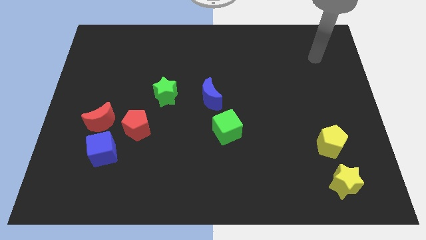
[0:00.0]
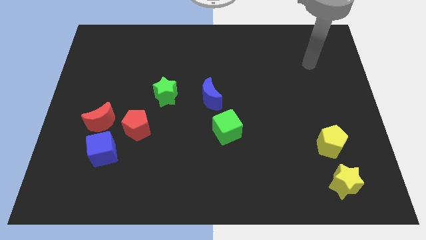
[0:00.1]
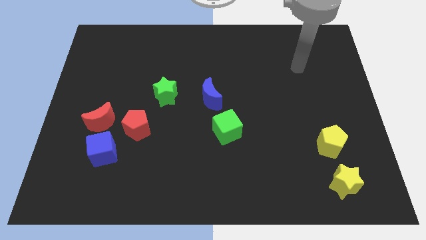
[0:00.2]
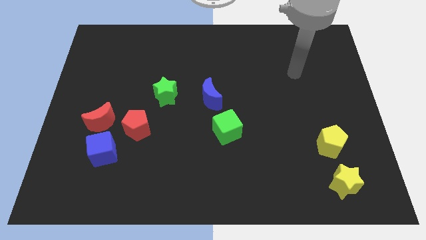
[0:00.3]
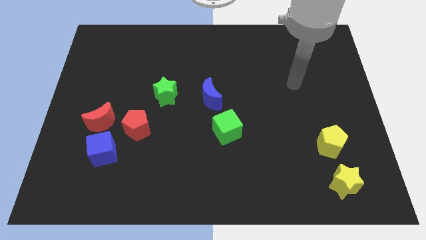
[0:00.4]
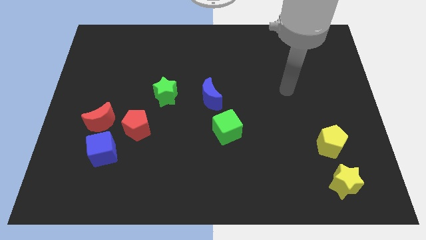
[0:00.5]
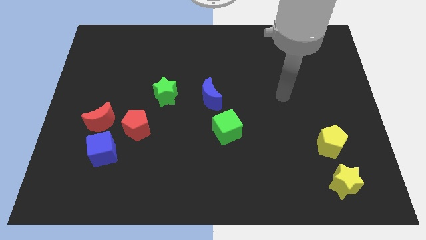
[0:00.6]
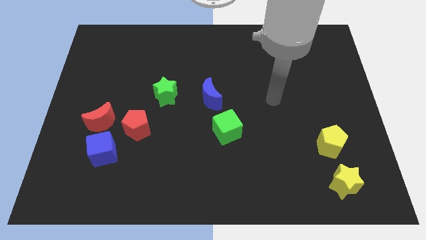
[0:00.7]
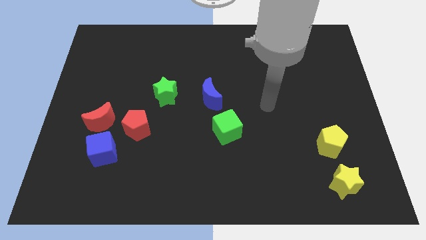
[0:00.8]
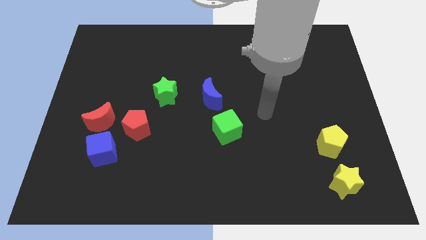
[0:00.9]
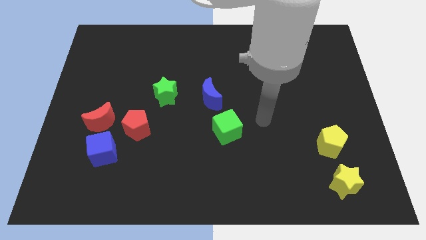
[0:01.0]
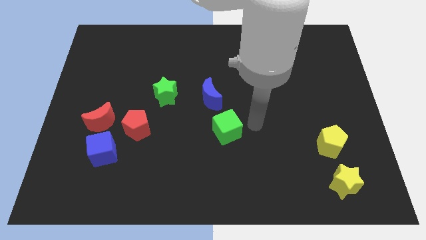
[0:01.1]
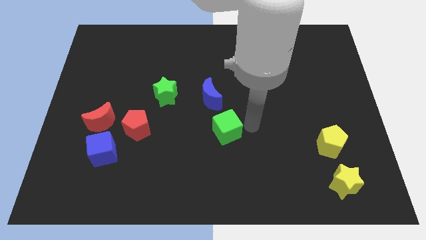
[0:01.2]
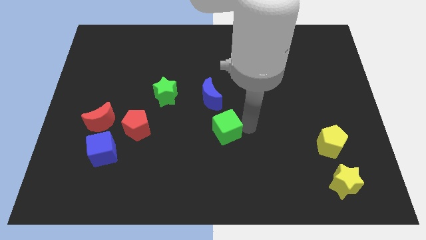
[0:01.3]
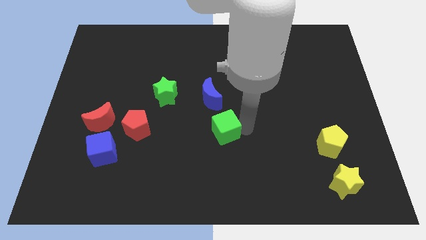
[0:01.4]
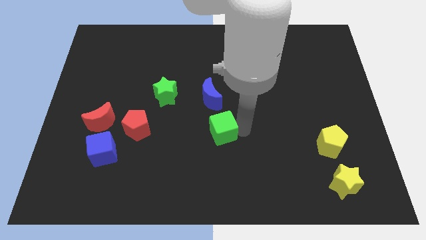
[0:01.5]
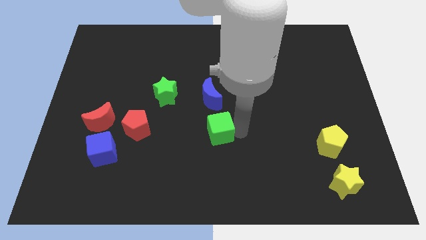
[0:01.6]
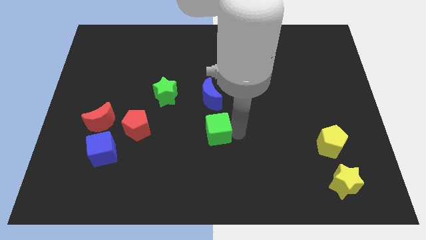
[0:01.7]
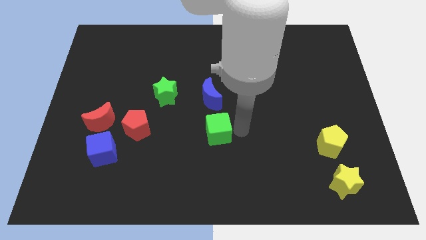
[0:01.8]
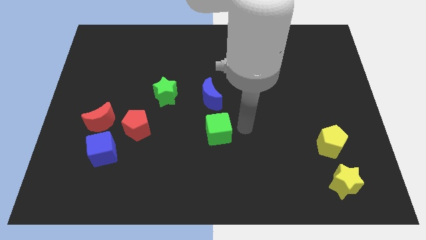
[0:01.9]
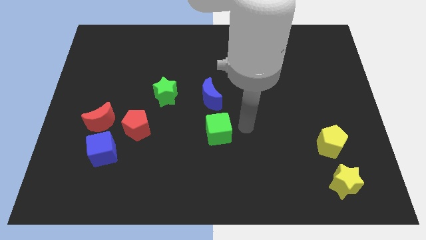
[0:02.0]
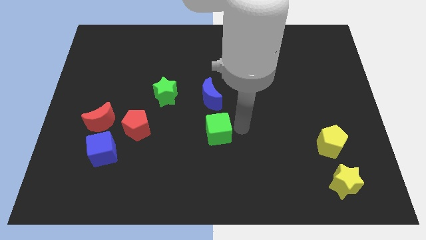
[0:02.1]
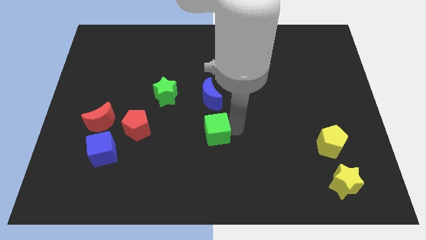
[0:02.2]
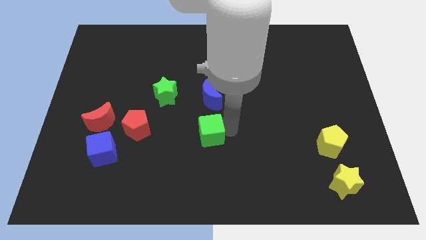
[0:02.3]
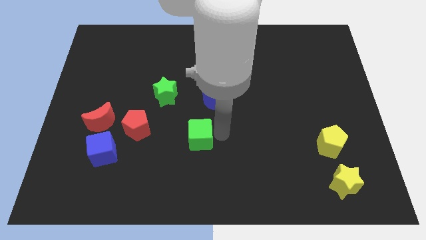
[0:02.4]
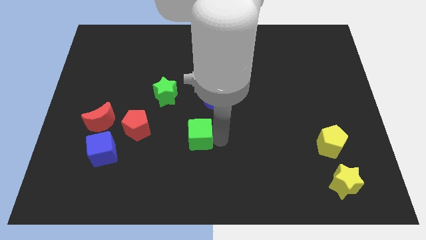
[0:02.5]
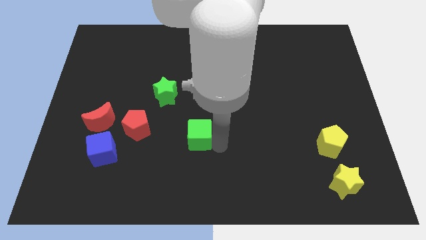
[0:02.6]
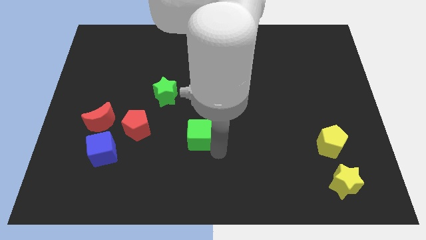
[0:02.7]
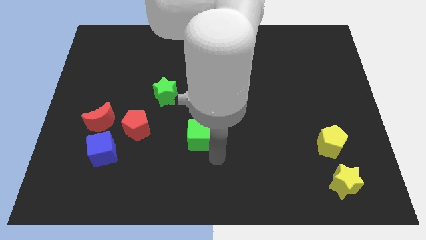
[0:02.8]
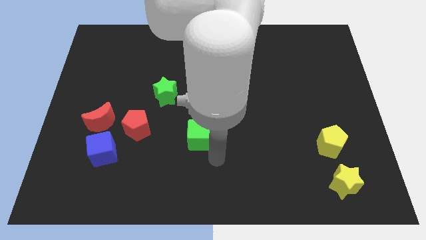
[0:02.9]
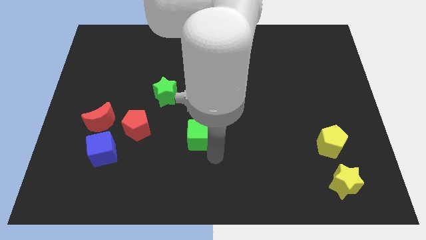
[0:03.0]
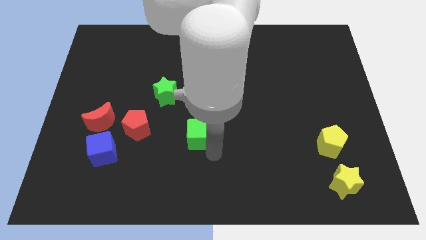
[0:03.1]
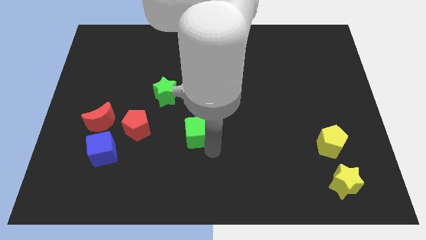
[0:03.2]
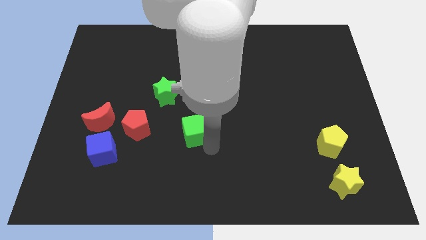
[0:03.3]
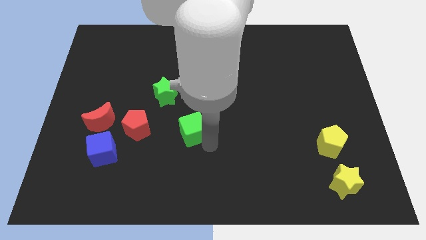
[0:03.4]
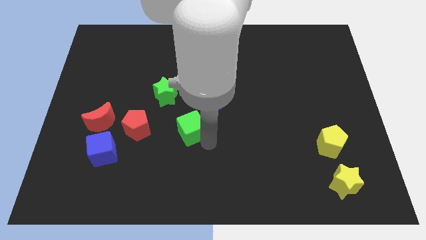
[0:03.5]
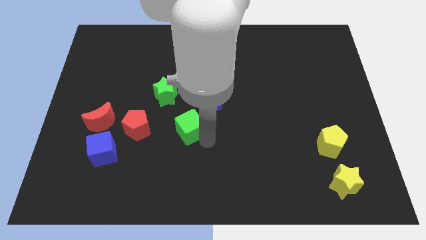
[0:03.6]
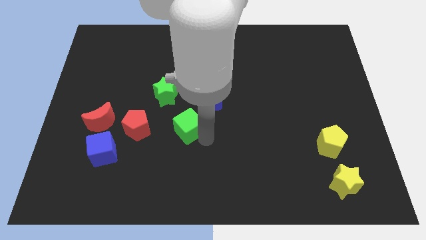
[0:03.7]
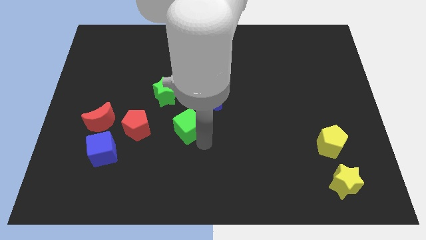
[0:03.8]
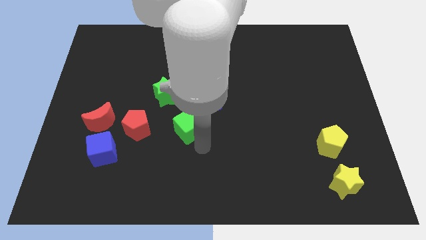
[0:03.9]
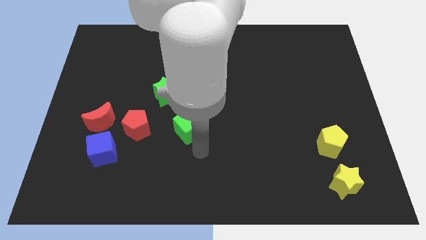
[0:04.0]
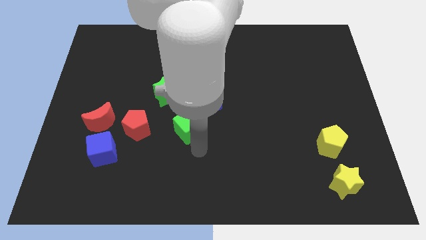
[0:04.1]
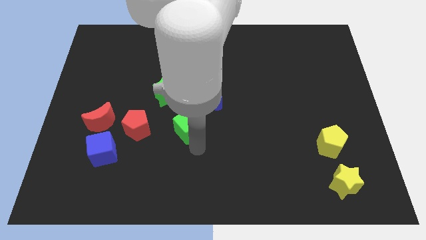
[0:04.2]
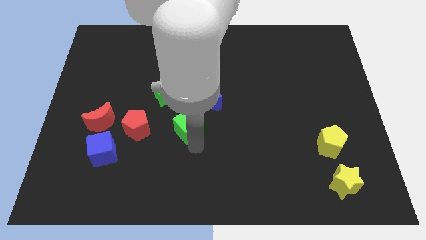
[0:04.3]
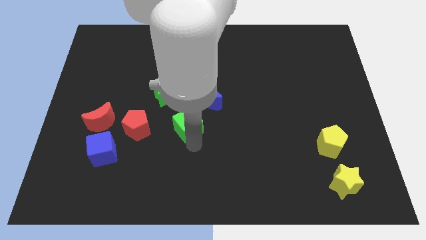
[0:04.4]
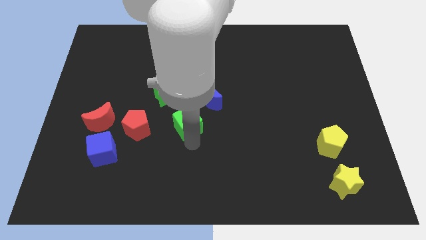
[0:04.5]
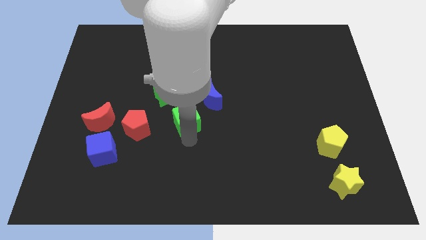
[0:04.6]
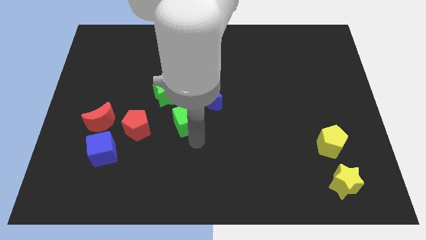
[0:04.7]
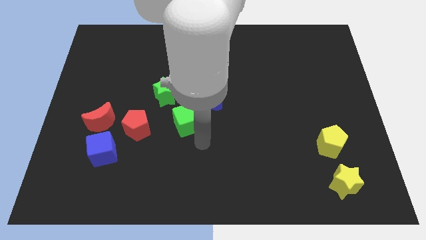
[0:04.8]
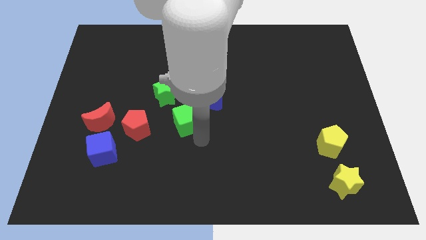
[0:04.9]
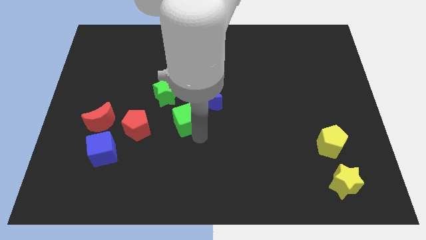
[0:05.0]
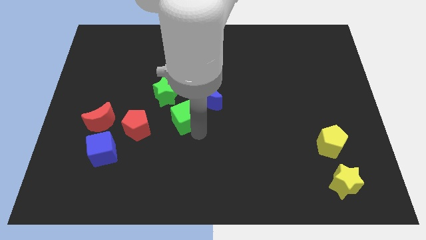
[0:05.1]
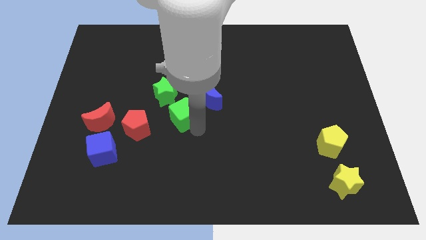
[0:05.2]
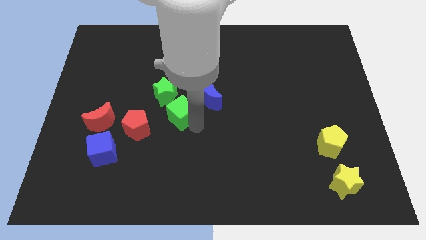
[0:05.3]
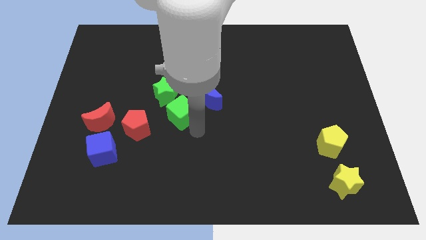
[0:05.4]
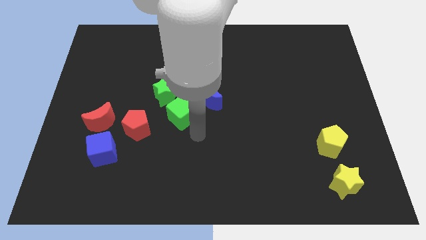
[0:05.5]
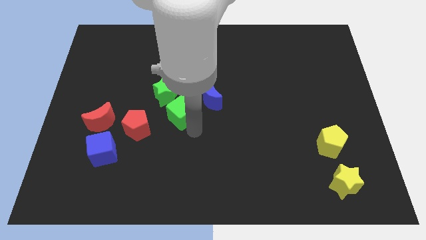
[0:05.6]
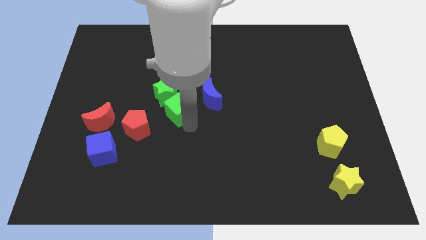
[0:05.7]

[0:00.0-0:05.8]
put the green cube close to the green star

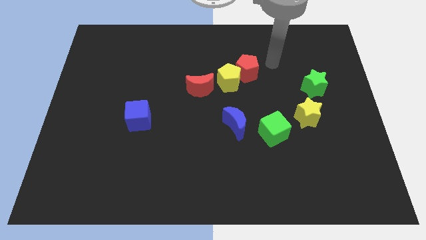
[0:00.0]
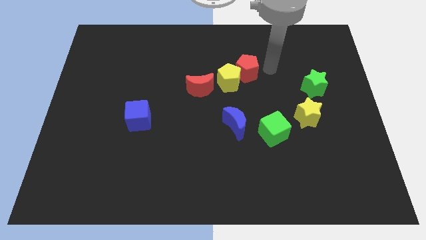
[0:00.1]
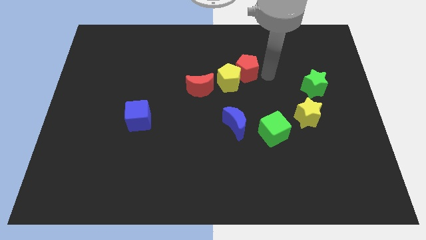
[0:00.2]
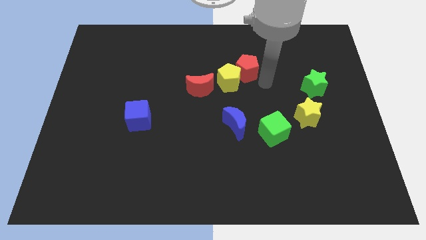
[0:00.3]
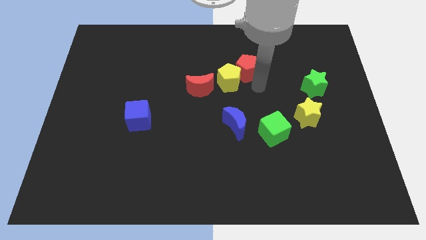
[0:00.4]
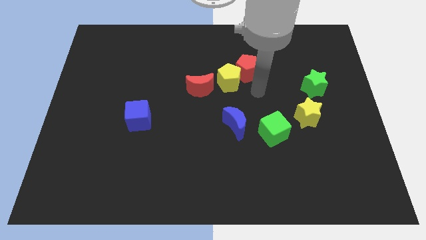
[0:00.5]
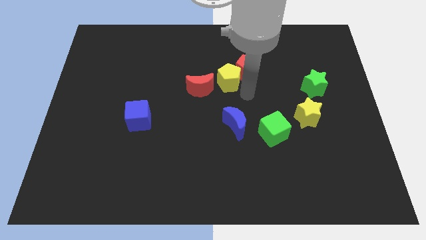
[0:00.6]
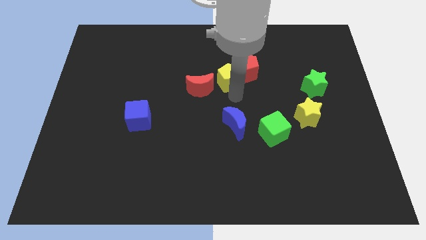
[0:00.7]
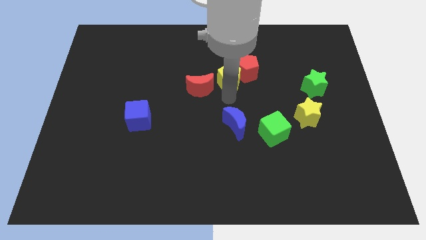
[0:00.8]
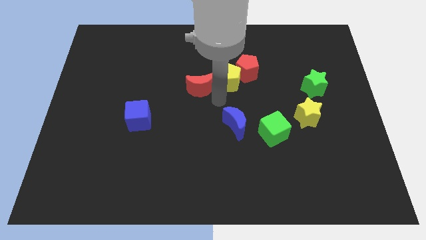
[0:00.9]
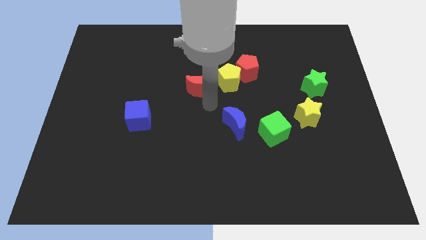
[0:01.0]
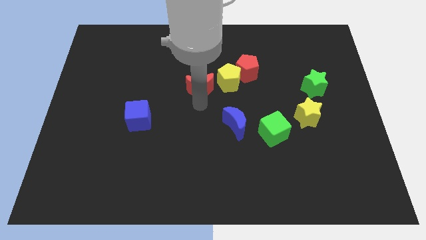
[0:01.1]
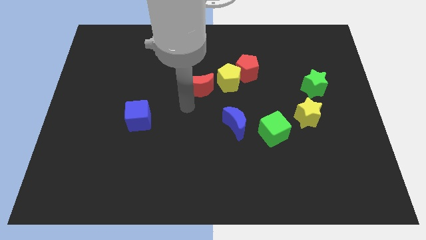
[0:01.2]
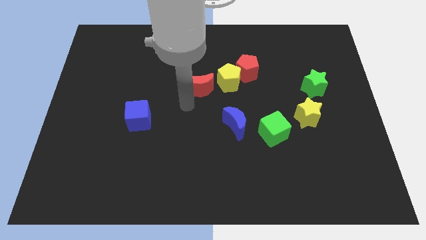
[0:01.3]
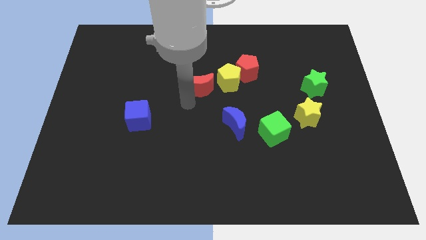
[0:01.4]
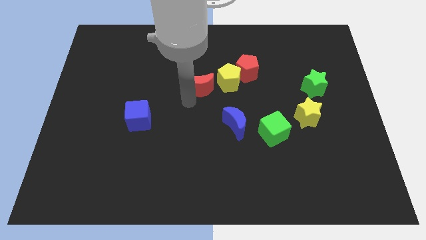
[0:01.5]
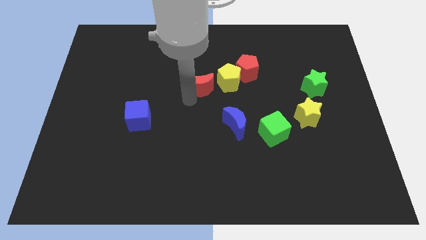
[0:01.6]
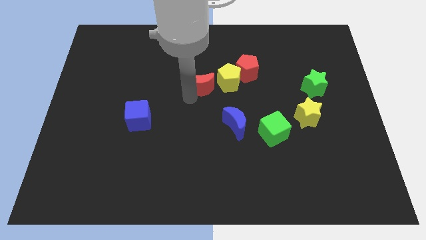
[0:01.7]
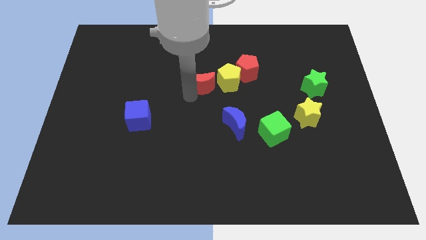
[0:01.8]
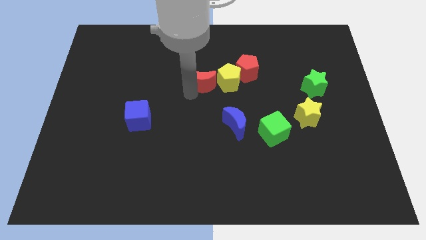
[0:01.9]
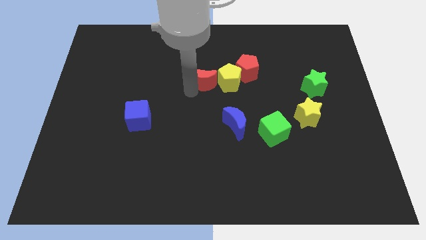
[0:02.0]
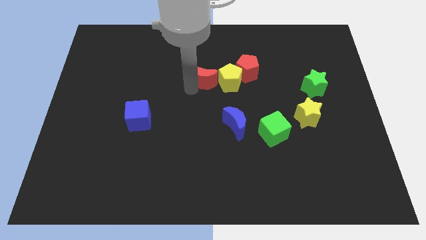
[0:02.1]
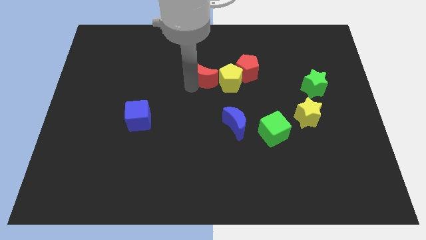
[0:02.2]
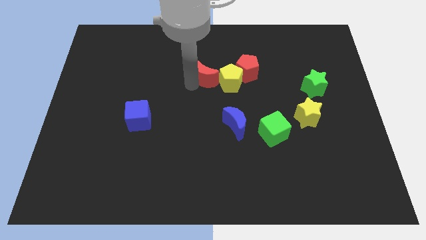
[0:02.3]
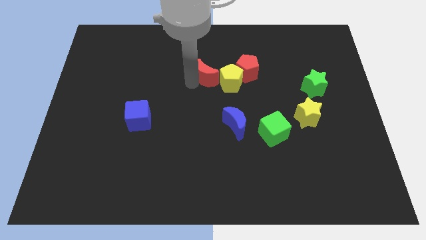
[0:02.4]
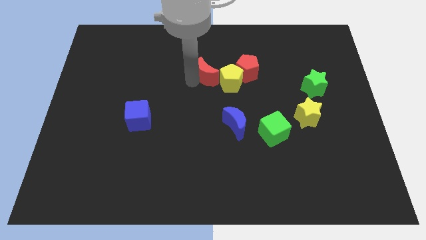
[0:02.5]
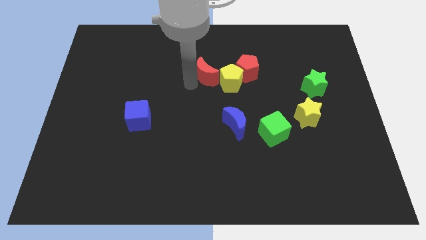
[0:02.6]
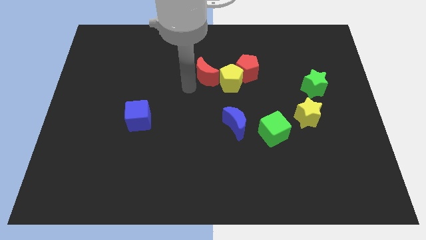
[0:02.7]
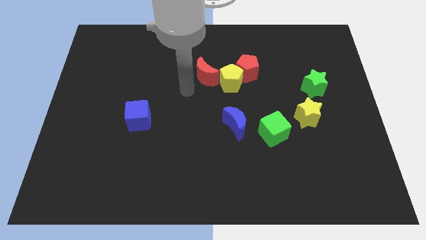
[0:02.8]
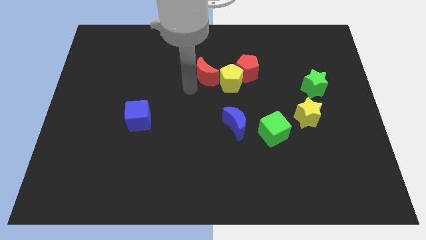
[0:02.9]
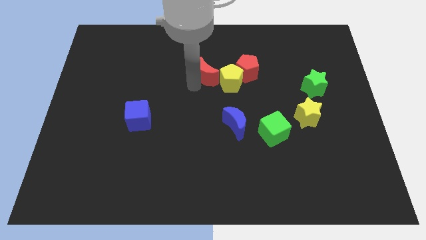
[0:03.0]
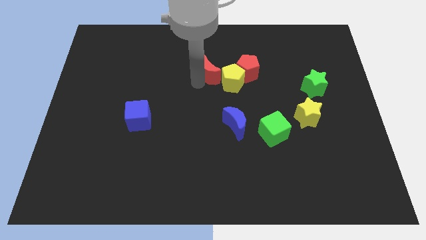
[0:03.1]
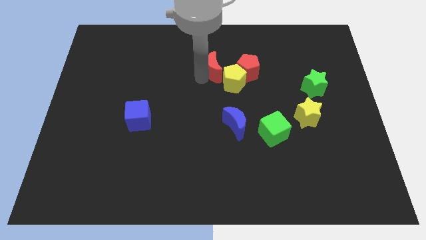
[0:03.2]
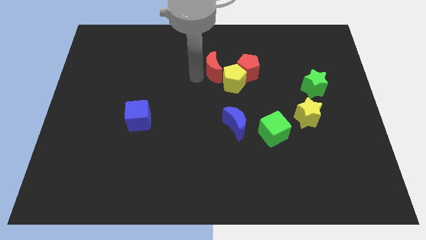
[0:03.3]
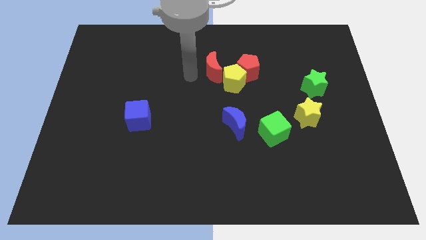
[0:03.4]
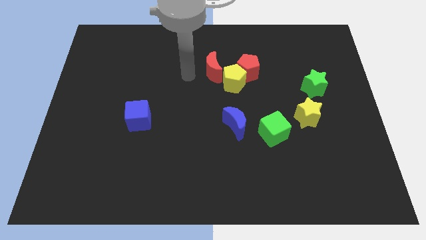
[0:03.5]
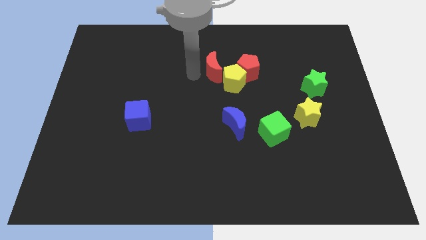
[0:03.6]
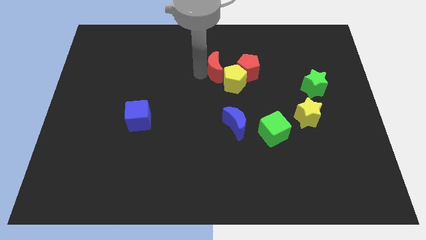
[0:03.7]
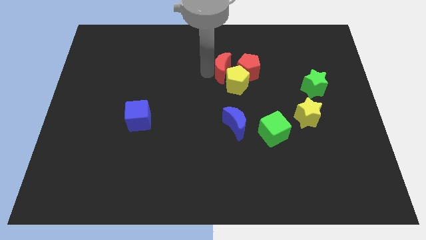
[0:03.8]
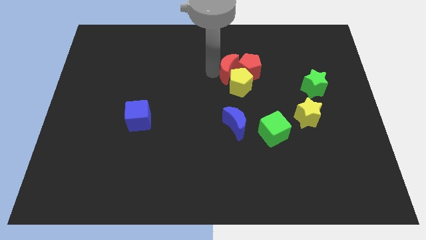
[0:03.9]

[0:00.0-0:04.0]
slide the red moon towards the red pentagon
